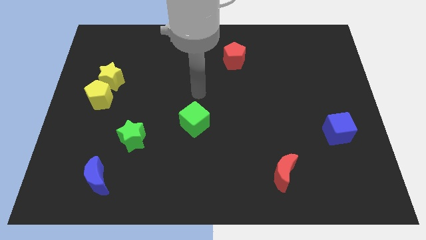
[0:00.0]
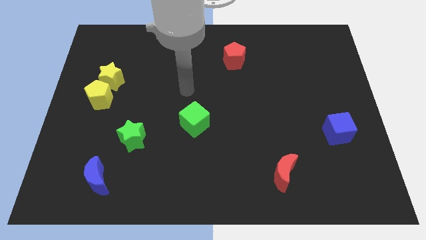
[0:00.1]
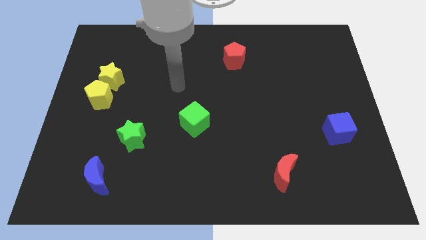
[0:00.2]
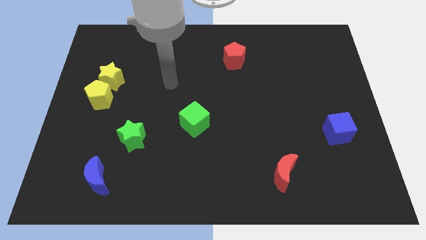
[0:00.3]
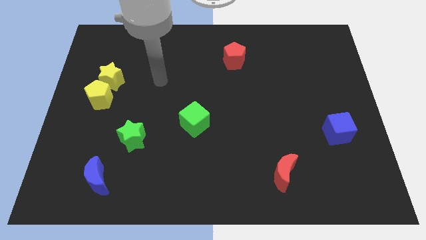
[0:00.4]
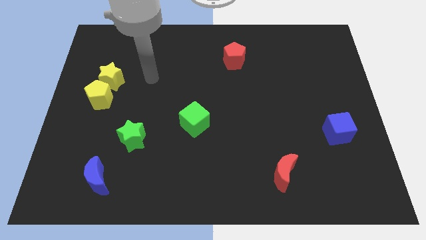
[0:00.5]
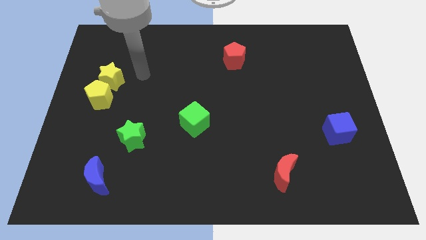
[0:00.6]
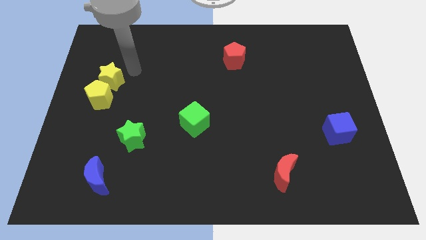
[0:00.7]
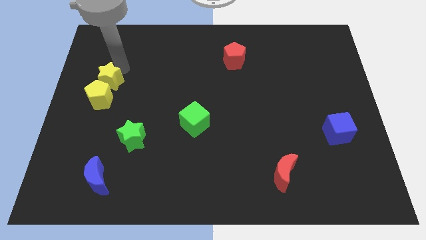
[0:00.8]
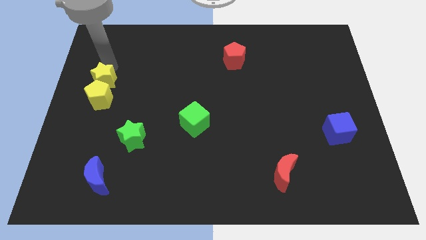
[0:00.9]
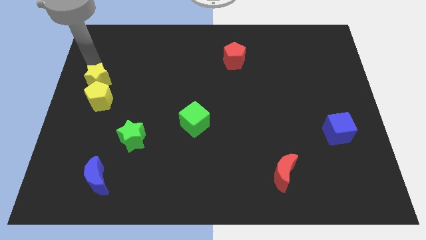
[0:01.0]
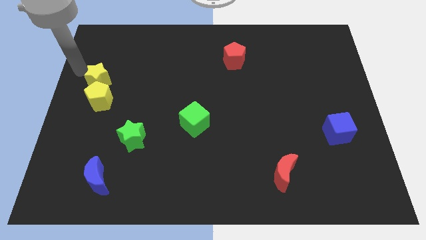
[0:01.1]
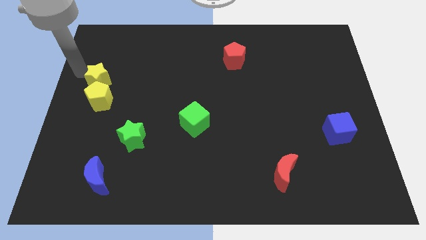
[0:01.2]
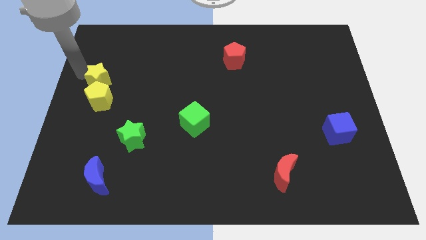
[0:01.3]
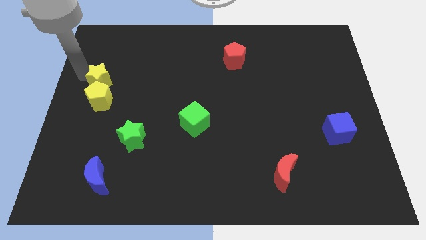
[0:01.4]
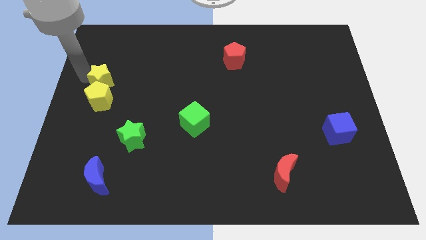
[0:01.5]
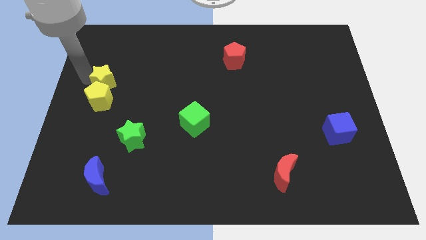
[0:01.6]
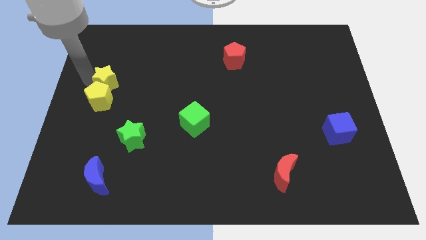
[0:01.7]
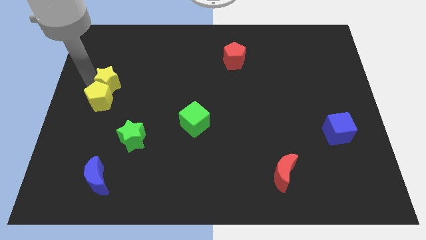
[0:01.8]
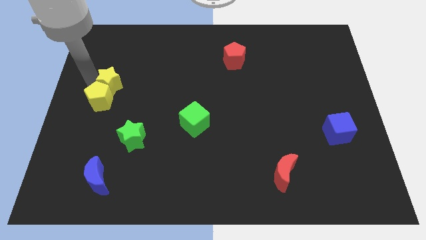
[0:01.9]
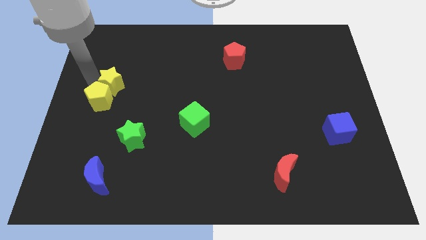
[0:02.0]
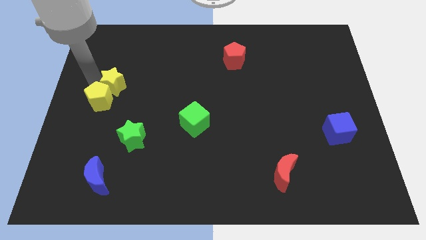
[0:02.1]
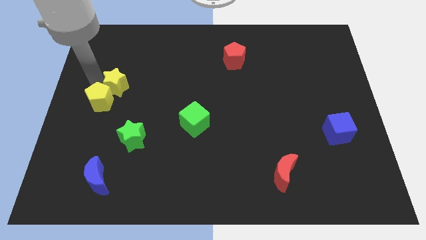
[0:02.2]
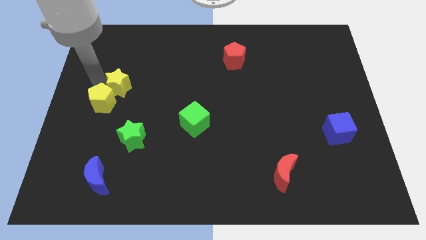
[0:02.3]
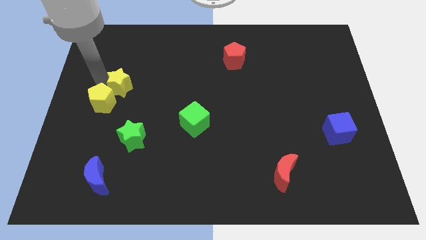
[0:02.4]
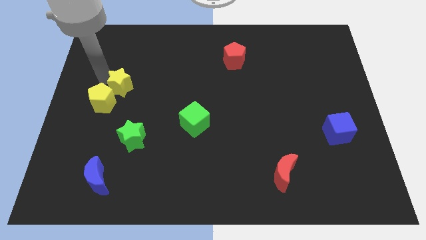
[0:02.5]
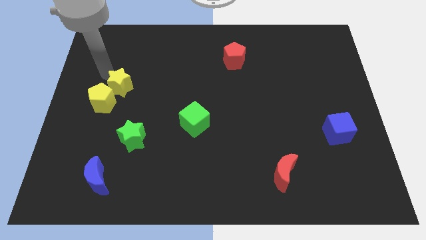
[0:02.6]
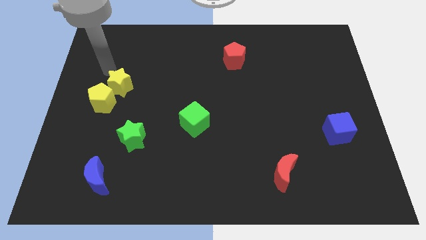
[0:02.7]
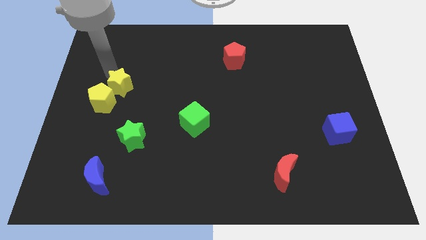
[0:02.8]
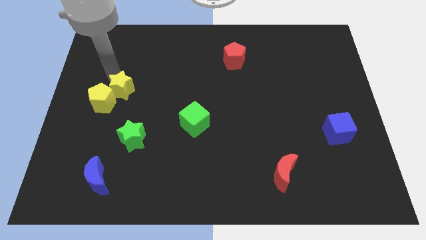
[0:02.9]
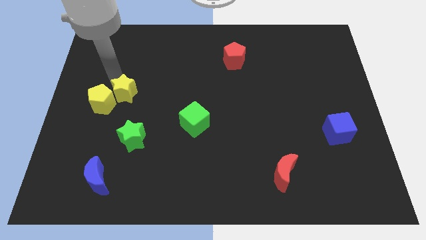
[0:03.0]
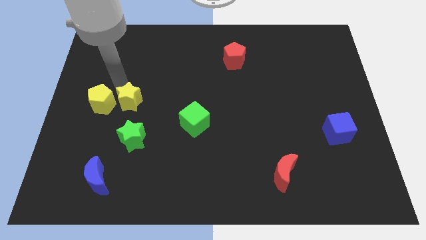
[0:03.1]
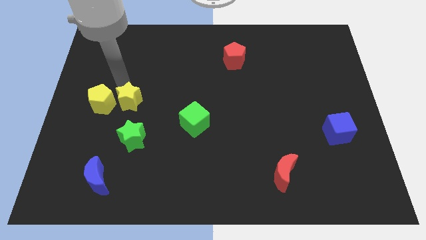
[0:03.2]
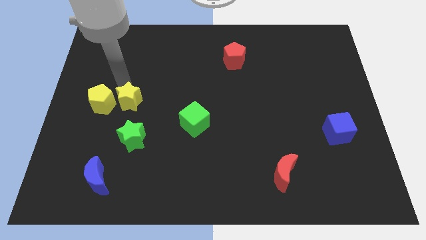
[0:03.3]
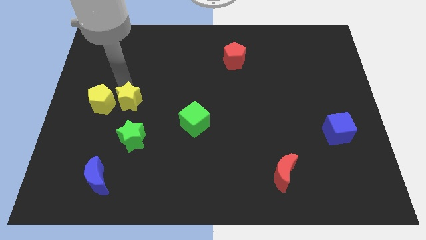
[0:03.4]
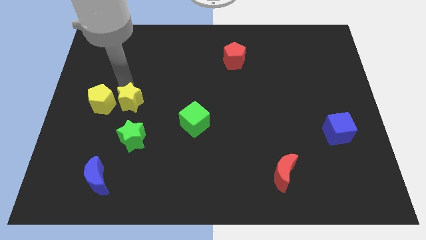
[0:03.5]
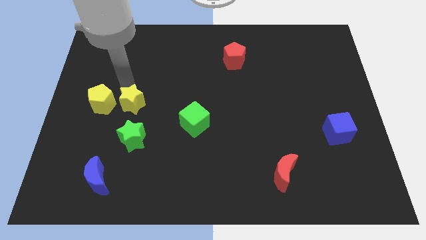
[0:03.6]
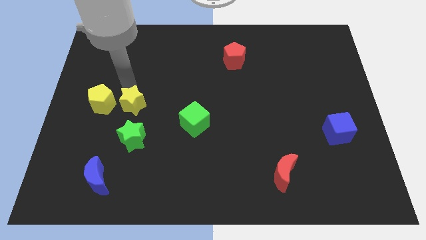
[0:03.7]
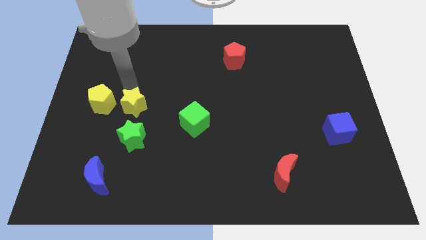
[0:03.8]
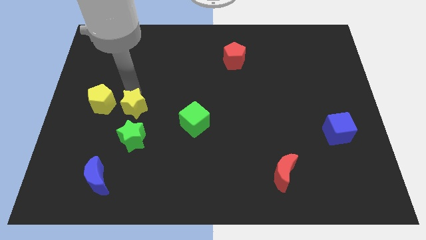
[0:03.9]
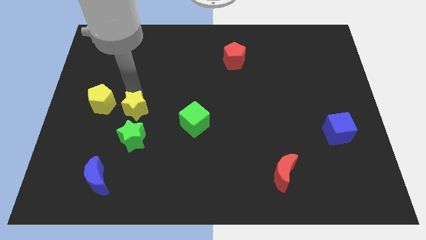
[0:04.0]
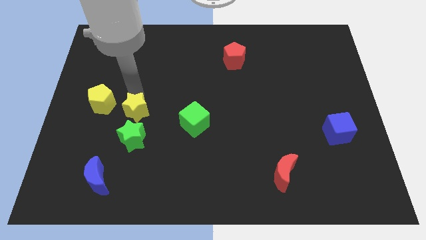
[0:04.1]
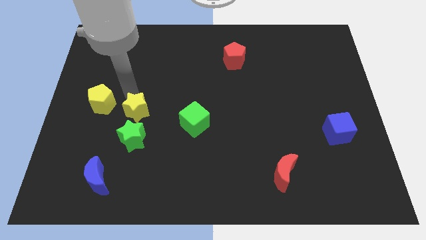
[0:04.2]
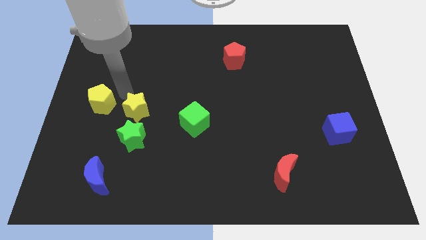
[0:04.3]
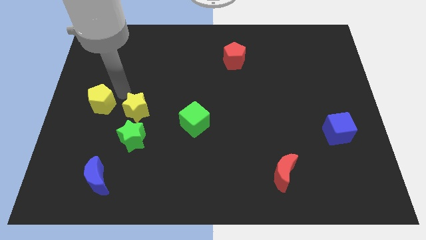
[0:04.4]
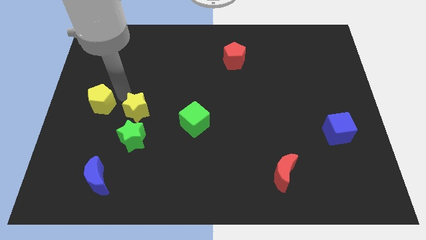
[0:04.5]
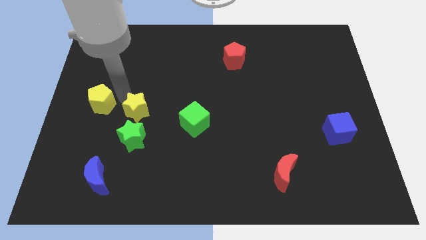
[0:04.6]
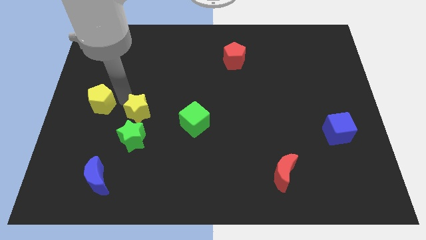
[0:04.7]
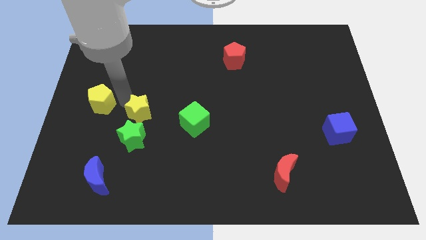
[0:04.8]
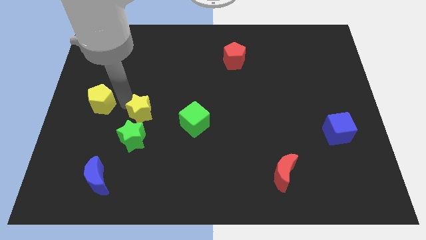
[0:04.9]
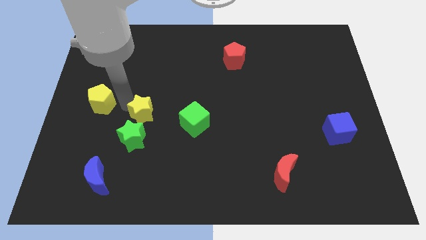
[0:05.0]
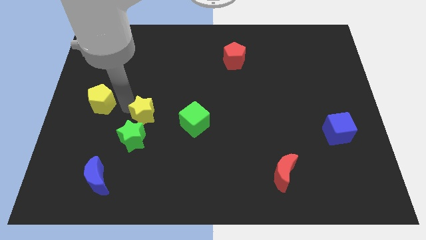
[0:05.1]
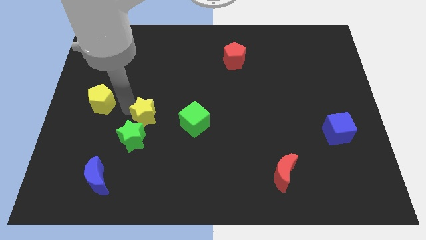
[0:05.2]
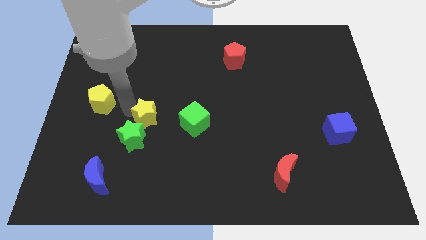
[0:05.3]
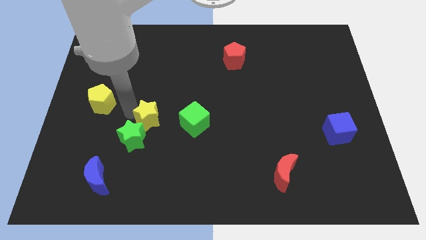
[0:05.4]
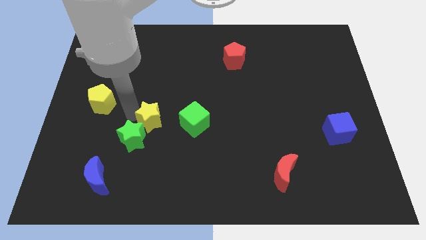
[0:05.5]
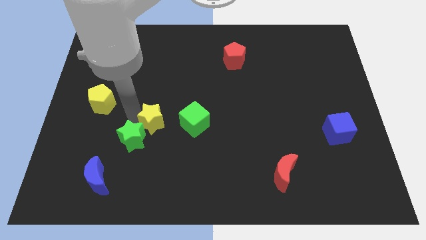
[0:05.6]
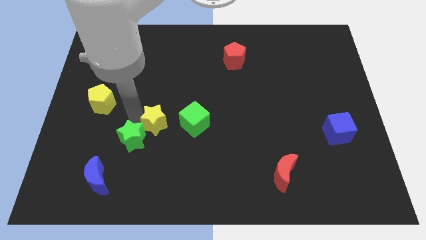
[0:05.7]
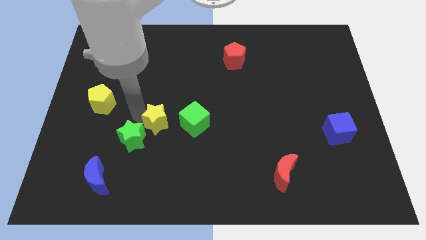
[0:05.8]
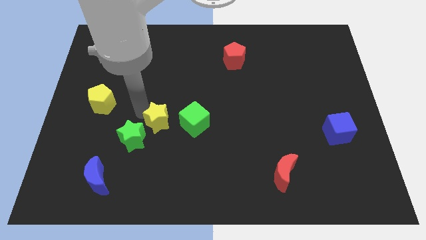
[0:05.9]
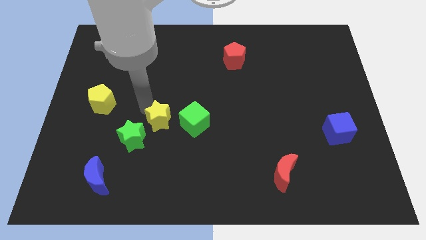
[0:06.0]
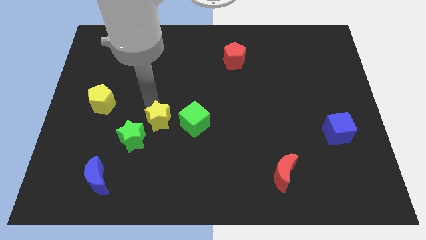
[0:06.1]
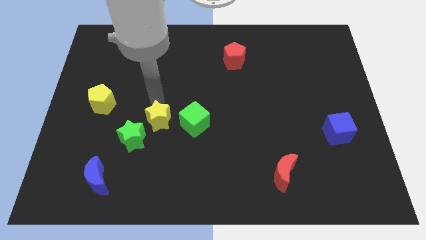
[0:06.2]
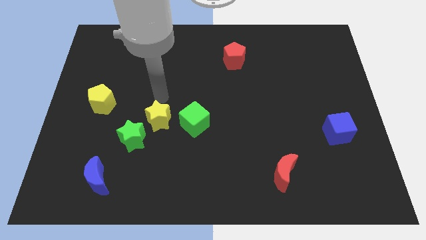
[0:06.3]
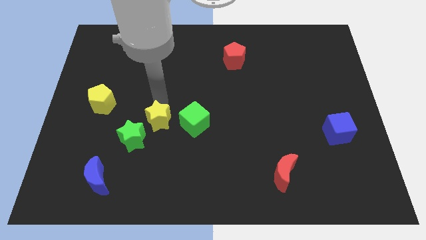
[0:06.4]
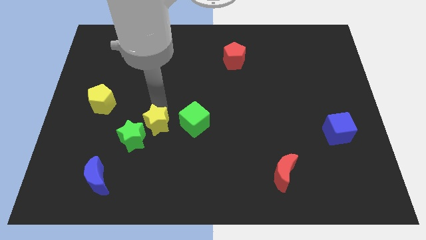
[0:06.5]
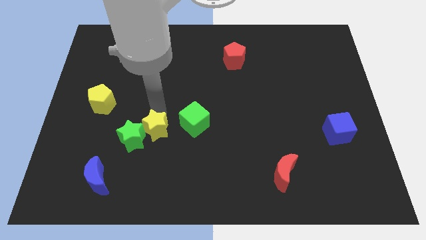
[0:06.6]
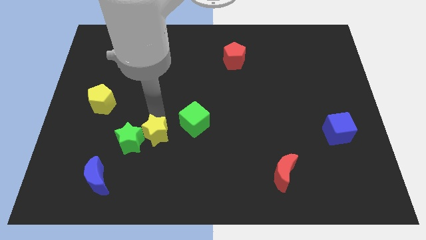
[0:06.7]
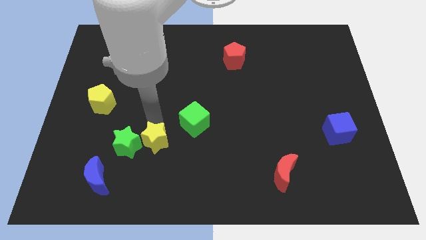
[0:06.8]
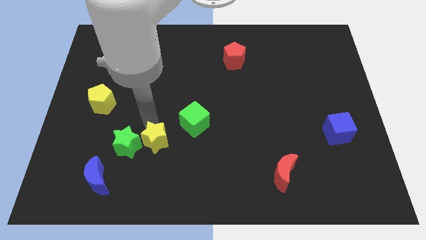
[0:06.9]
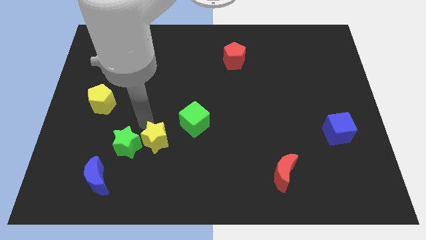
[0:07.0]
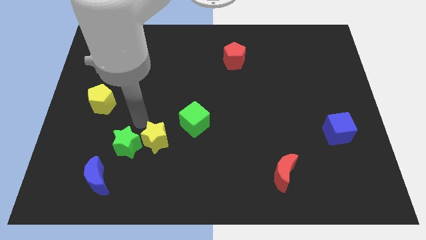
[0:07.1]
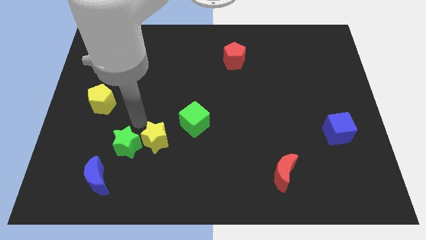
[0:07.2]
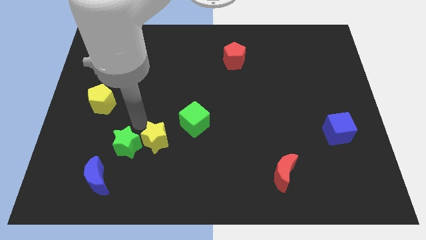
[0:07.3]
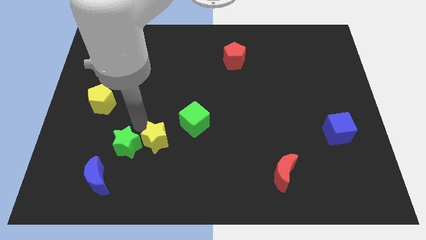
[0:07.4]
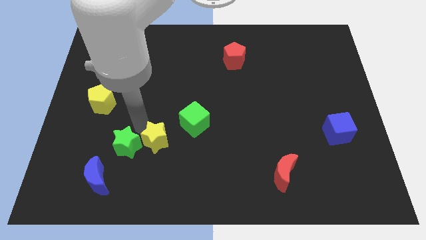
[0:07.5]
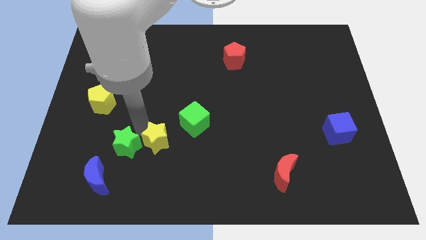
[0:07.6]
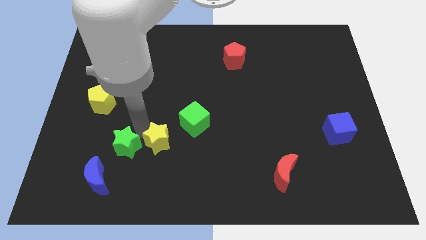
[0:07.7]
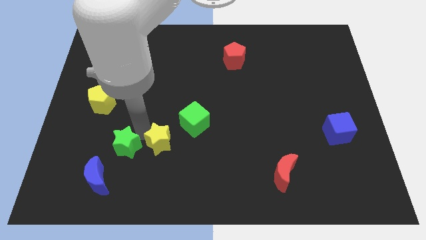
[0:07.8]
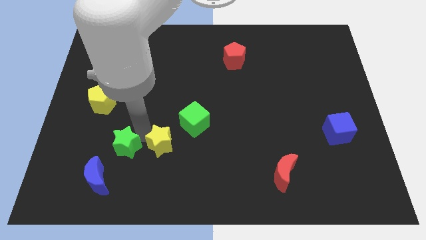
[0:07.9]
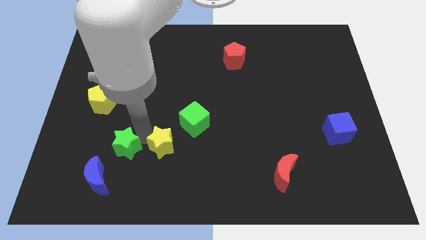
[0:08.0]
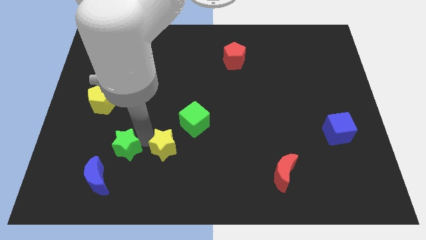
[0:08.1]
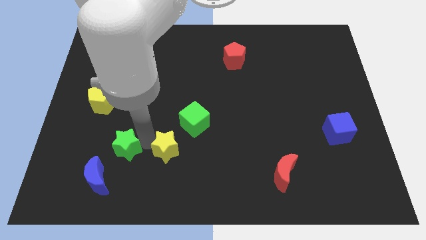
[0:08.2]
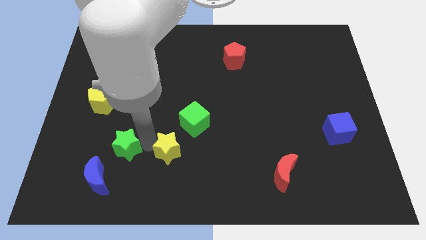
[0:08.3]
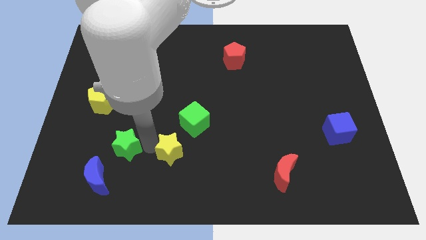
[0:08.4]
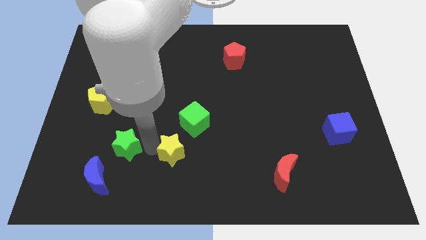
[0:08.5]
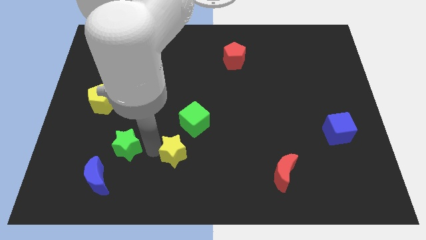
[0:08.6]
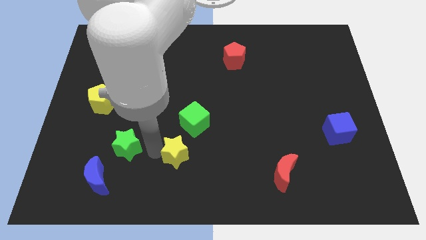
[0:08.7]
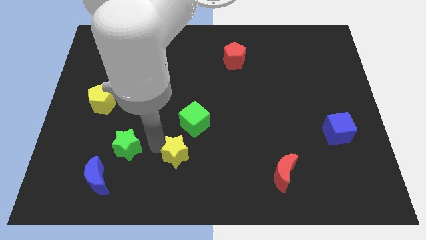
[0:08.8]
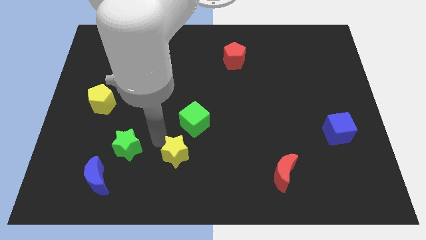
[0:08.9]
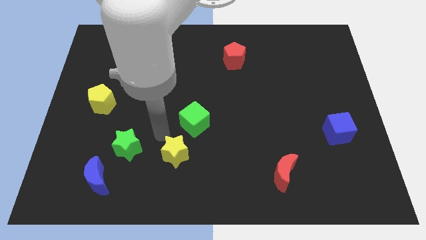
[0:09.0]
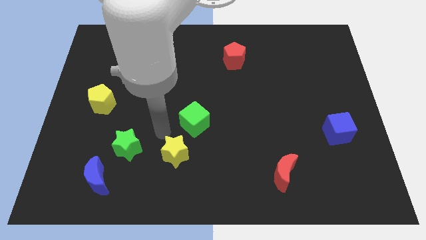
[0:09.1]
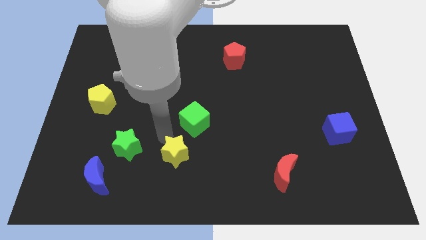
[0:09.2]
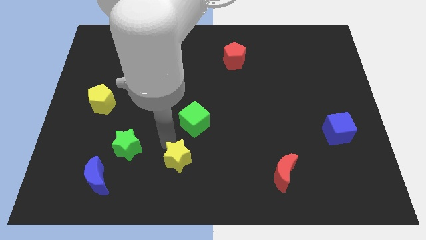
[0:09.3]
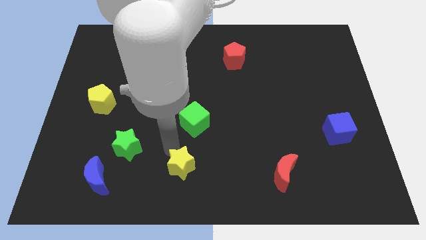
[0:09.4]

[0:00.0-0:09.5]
push the yellow star to the bottom
